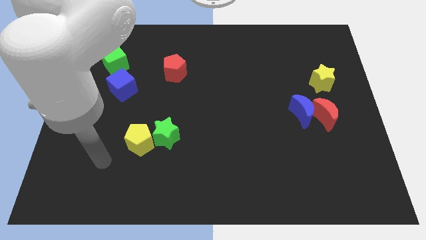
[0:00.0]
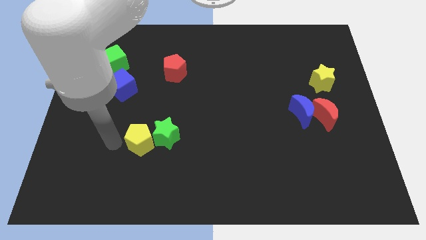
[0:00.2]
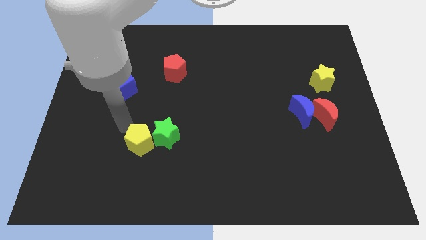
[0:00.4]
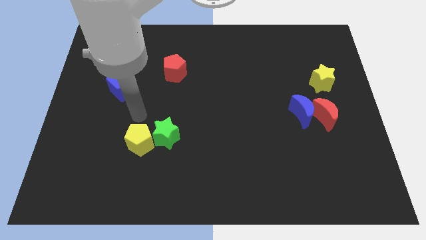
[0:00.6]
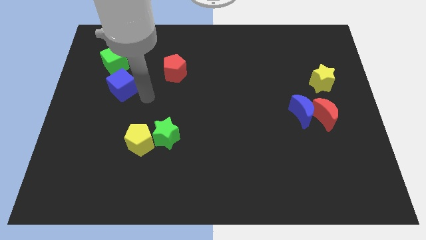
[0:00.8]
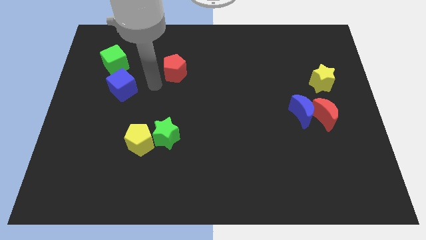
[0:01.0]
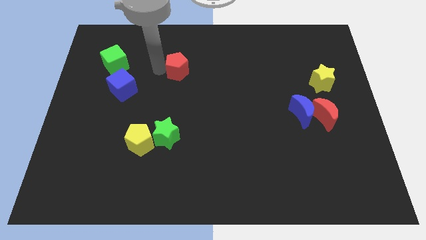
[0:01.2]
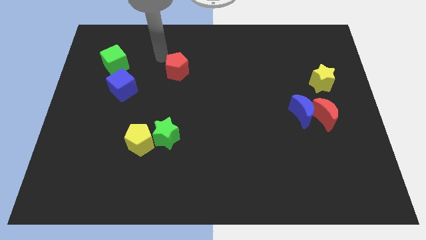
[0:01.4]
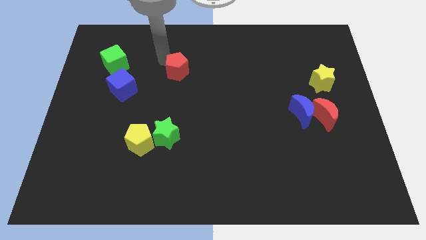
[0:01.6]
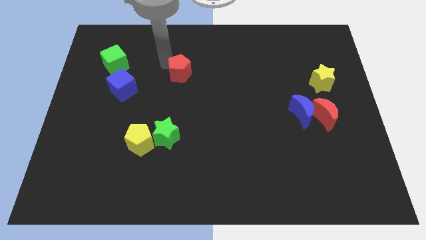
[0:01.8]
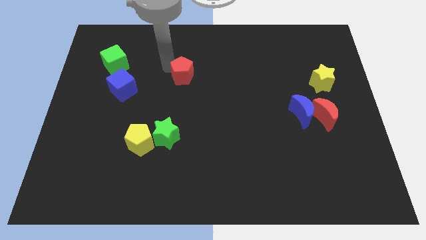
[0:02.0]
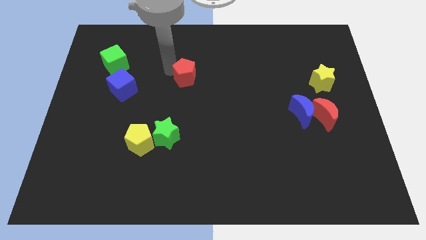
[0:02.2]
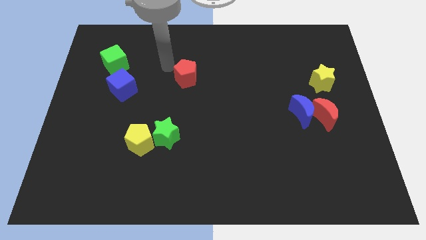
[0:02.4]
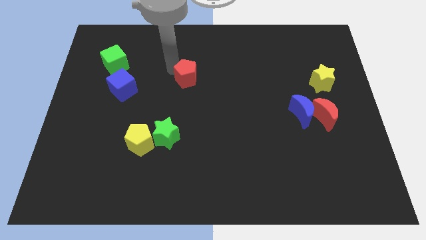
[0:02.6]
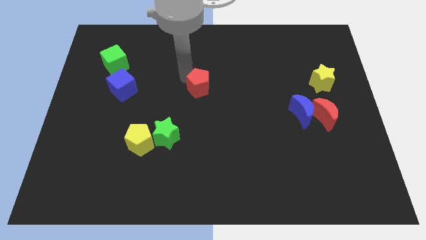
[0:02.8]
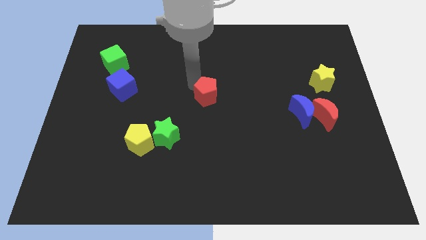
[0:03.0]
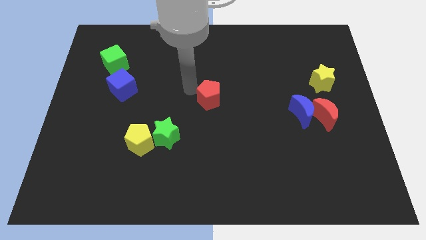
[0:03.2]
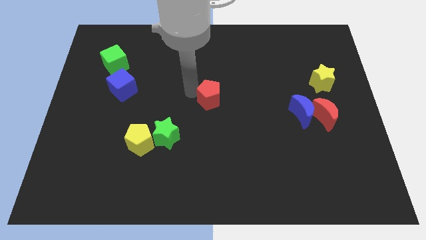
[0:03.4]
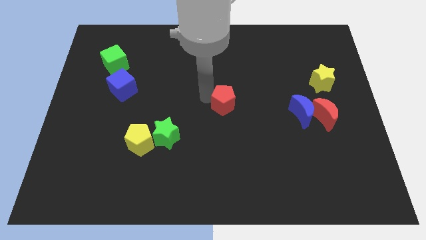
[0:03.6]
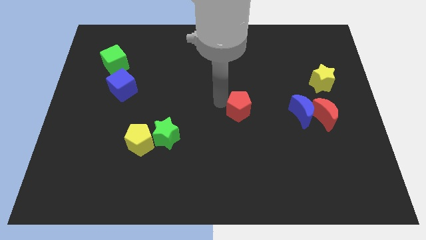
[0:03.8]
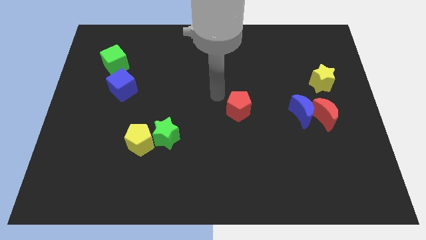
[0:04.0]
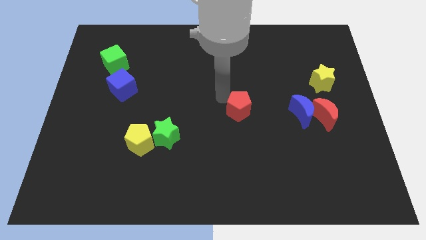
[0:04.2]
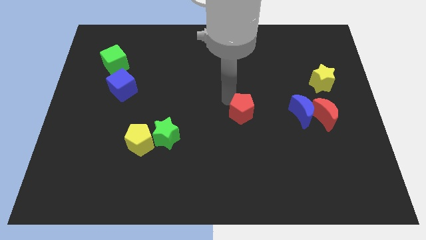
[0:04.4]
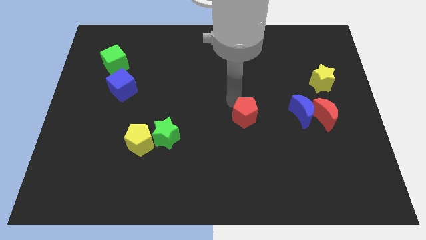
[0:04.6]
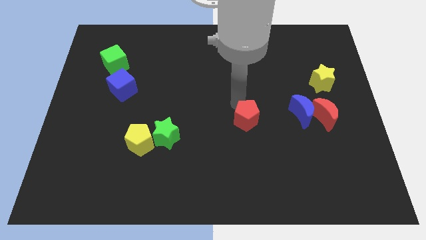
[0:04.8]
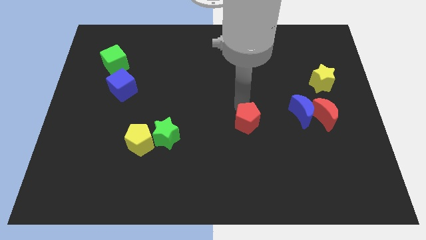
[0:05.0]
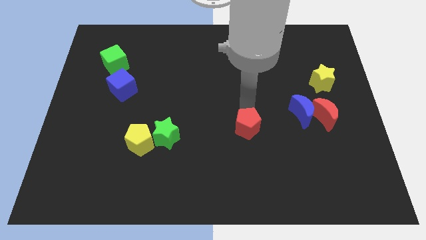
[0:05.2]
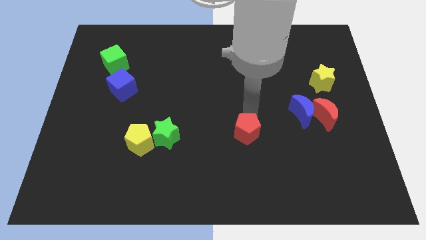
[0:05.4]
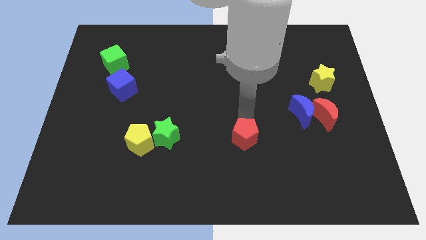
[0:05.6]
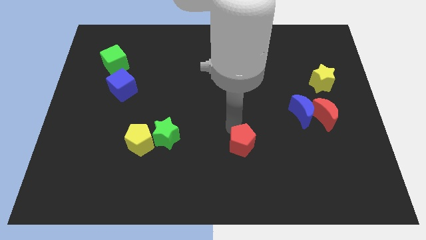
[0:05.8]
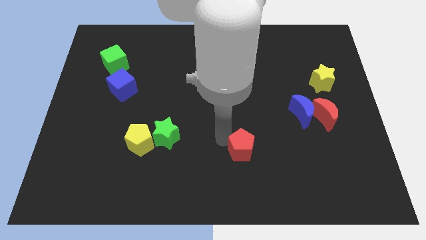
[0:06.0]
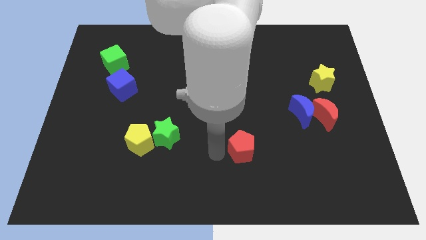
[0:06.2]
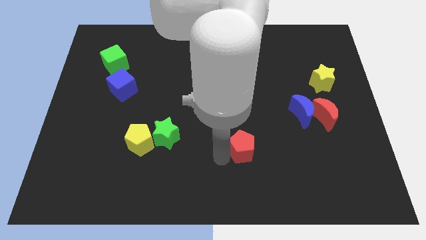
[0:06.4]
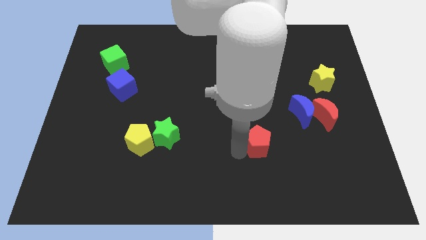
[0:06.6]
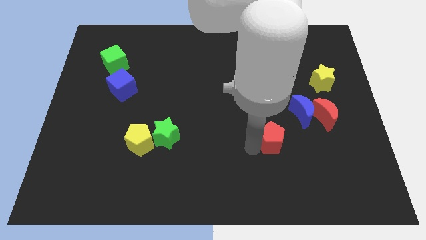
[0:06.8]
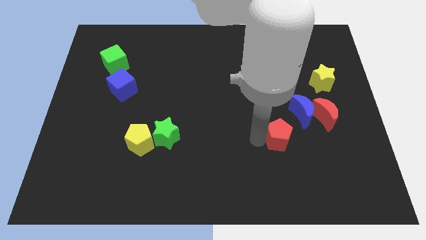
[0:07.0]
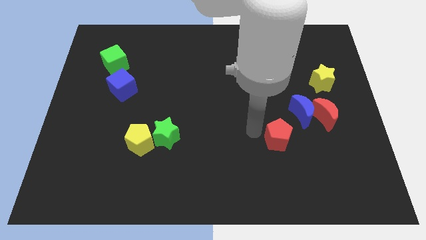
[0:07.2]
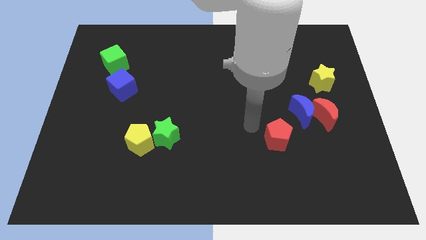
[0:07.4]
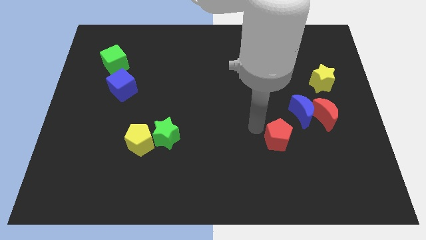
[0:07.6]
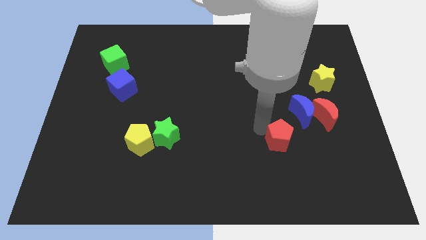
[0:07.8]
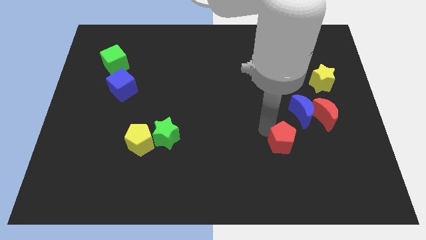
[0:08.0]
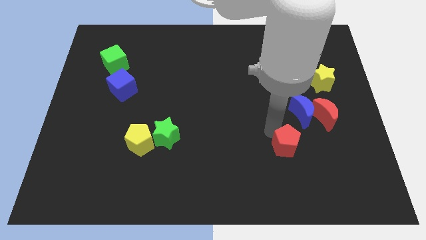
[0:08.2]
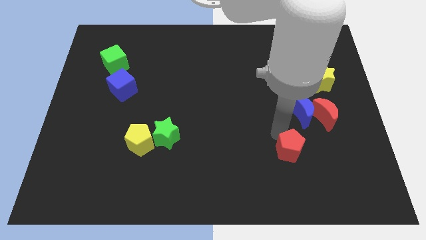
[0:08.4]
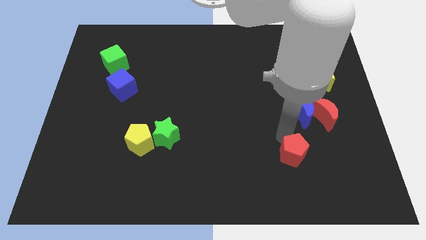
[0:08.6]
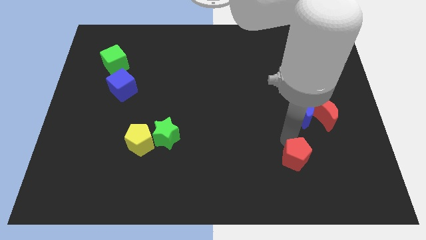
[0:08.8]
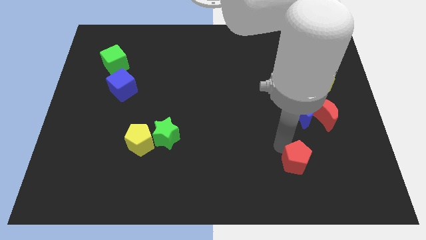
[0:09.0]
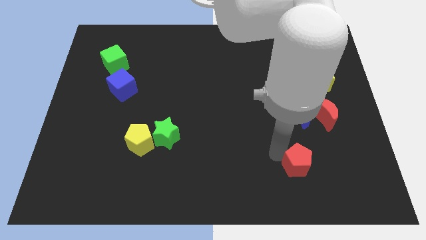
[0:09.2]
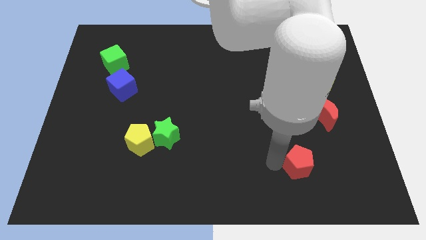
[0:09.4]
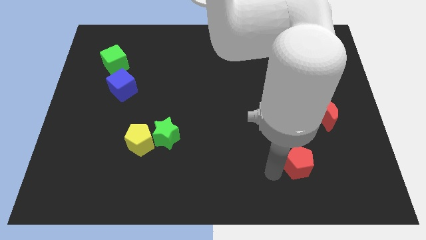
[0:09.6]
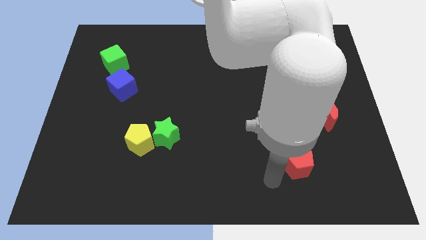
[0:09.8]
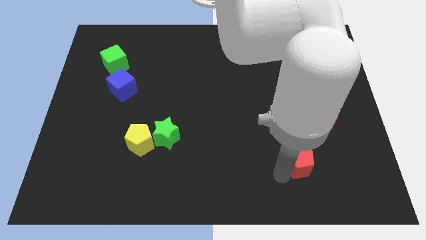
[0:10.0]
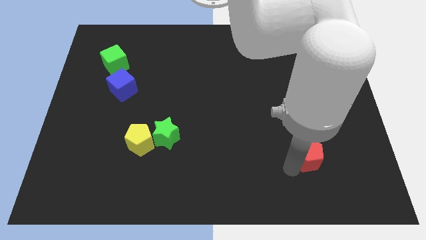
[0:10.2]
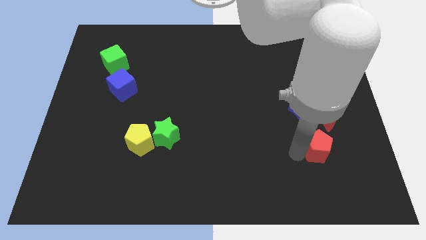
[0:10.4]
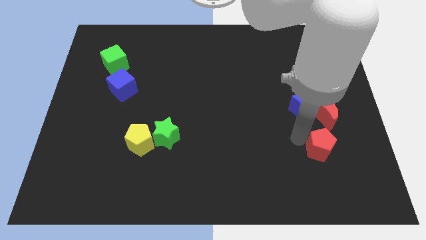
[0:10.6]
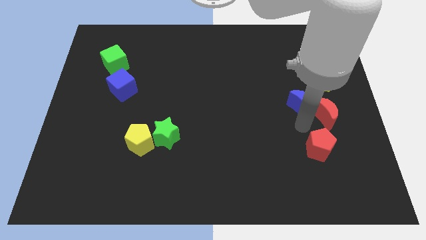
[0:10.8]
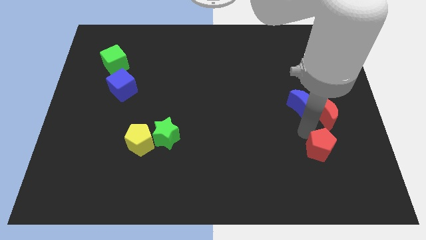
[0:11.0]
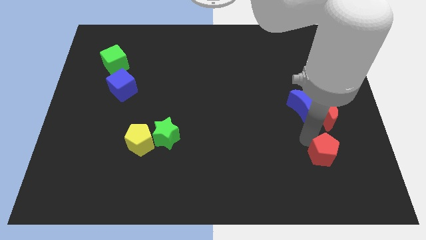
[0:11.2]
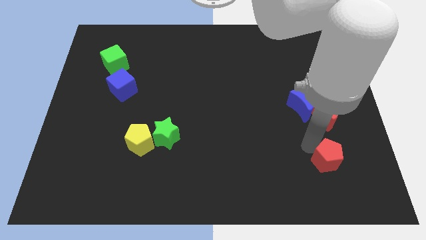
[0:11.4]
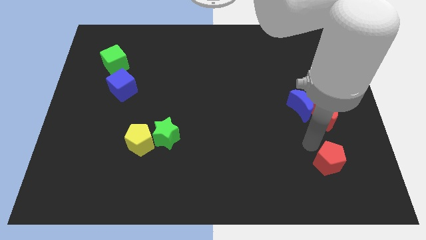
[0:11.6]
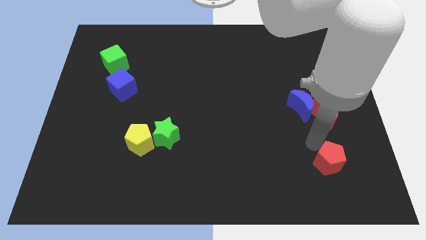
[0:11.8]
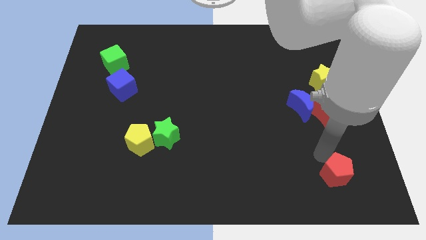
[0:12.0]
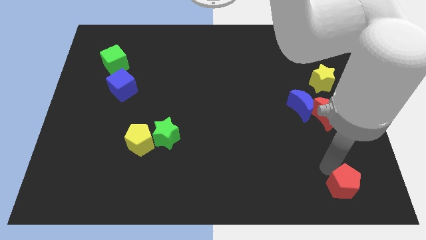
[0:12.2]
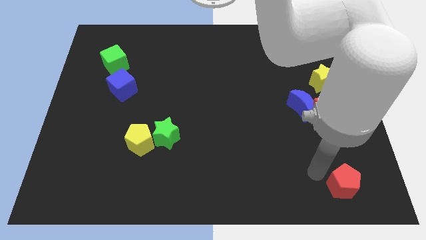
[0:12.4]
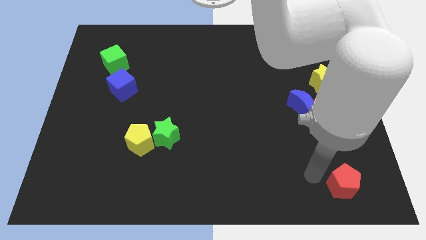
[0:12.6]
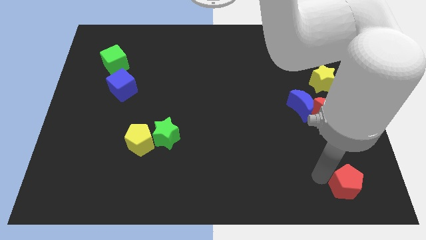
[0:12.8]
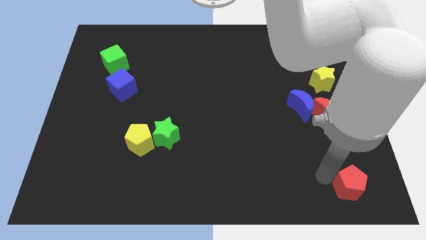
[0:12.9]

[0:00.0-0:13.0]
push the red pentagon to the lower right corner

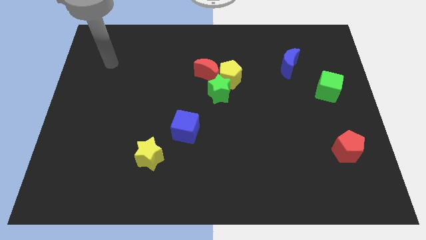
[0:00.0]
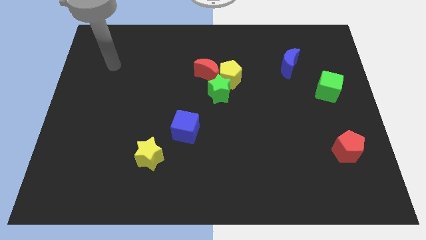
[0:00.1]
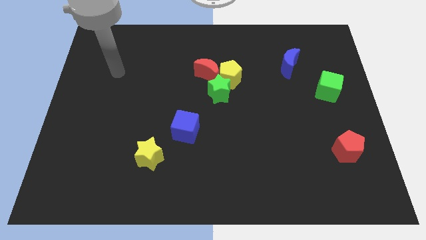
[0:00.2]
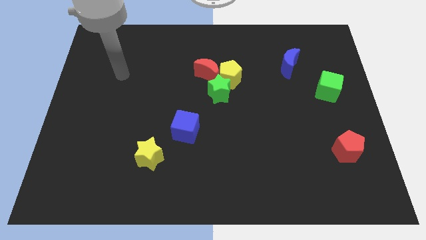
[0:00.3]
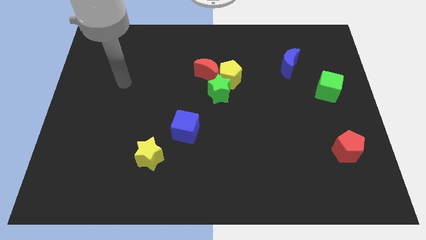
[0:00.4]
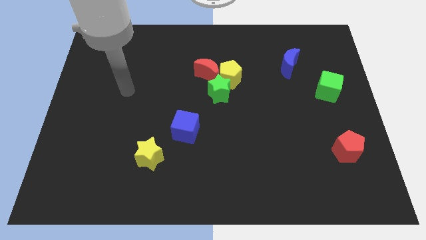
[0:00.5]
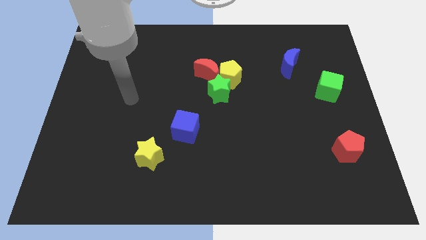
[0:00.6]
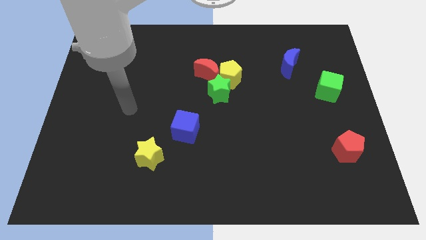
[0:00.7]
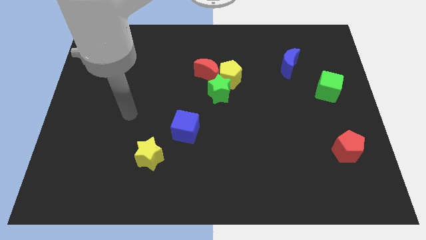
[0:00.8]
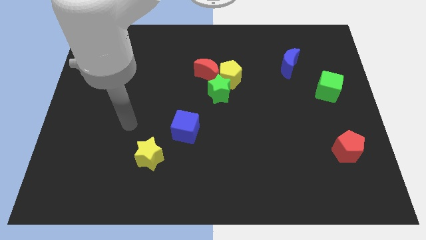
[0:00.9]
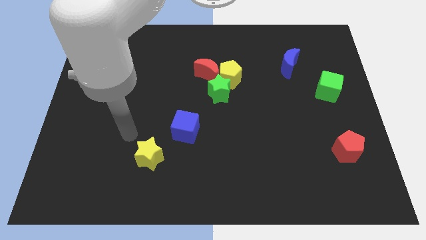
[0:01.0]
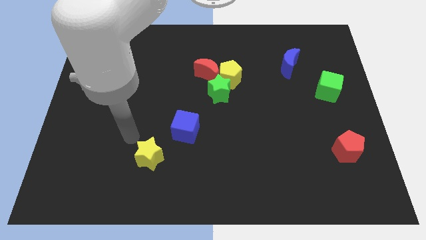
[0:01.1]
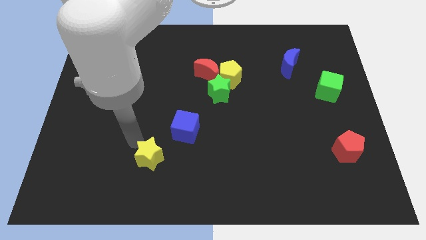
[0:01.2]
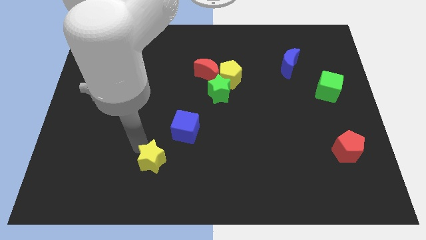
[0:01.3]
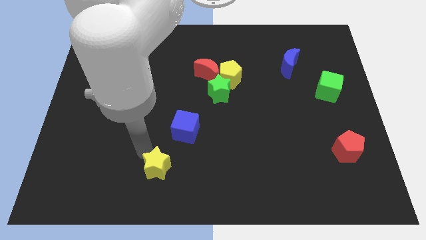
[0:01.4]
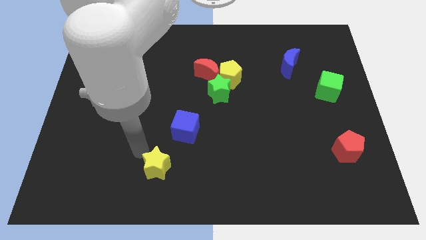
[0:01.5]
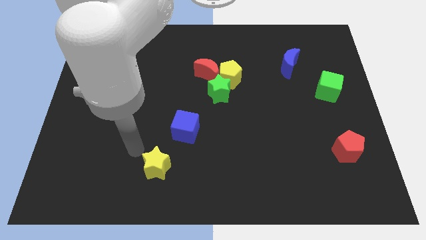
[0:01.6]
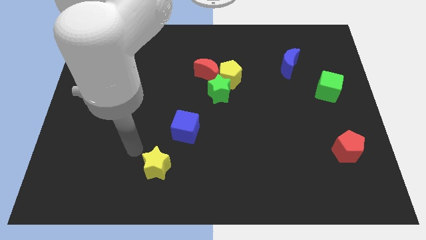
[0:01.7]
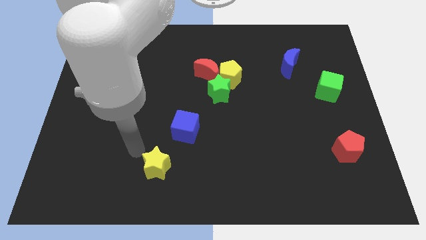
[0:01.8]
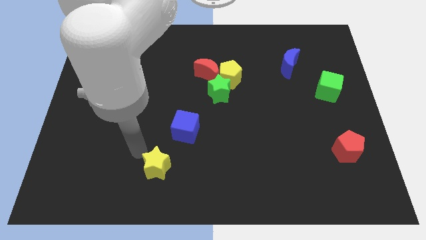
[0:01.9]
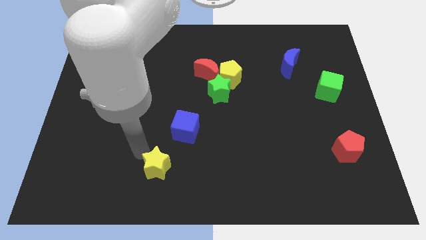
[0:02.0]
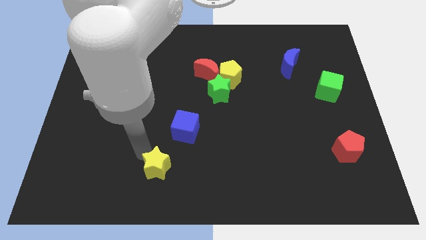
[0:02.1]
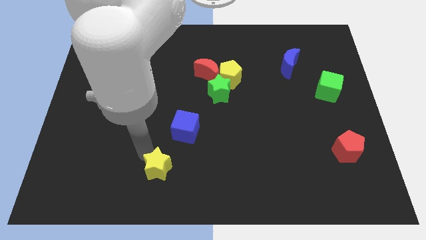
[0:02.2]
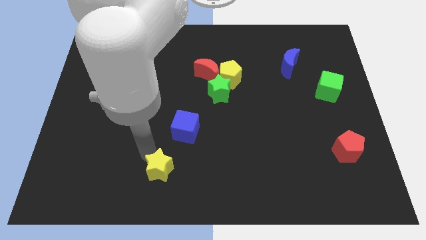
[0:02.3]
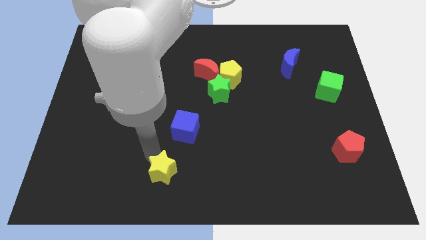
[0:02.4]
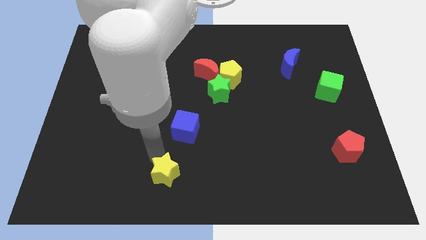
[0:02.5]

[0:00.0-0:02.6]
slide the yellow star to the bottom side
